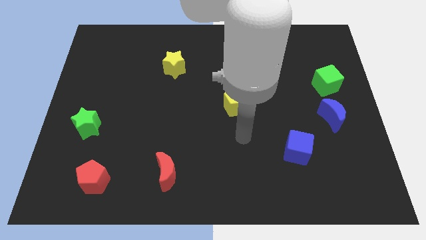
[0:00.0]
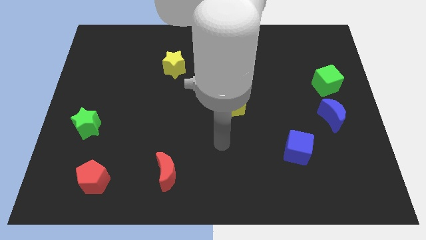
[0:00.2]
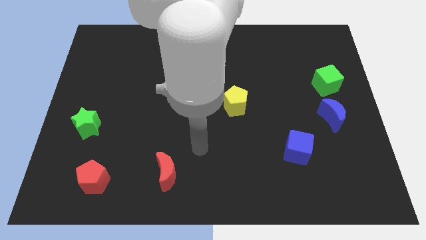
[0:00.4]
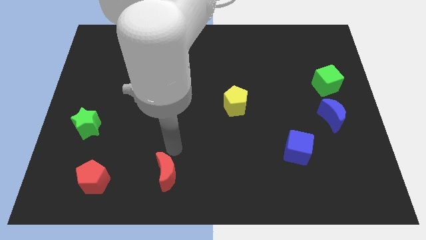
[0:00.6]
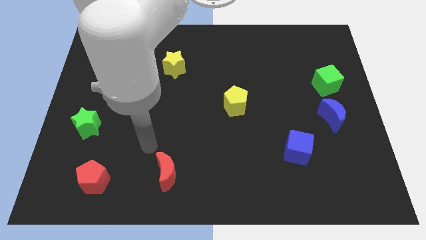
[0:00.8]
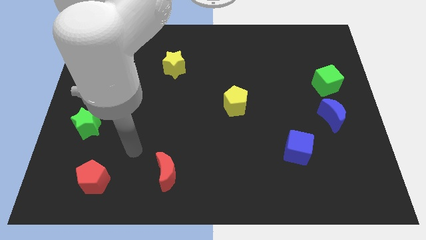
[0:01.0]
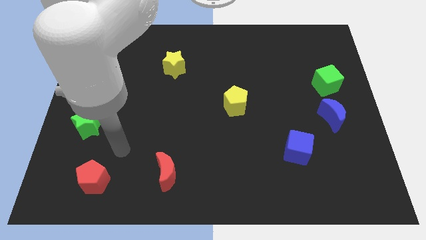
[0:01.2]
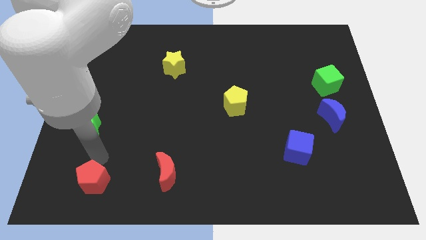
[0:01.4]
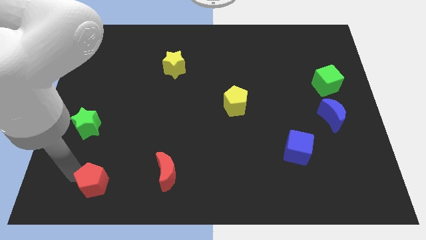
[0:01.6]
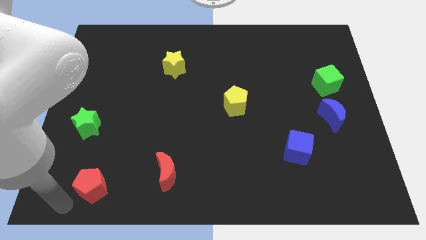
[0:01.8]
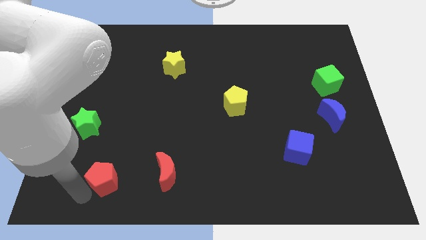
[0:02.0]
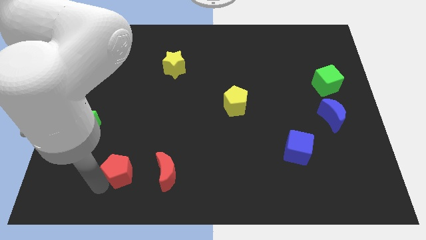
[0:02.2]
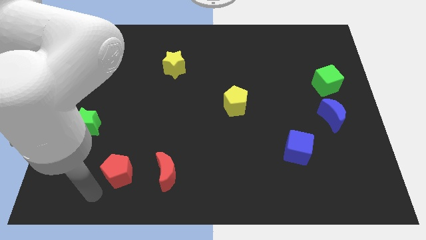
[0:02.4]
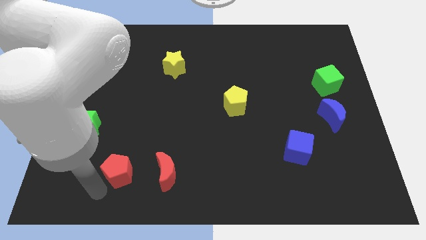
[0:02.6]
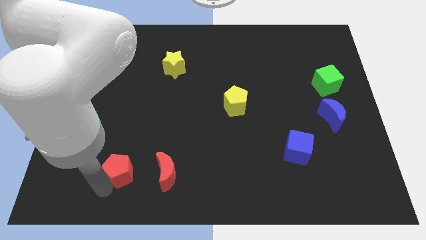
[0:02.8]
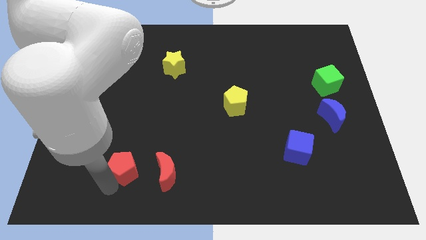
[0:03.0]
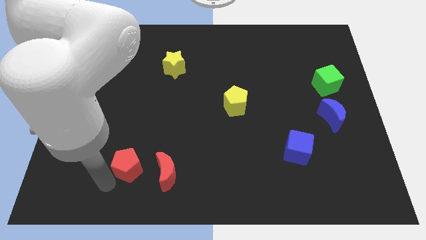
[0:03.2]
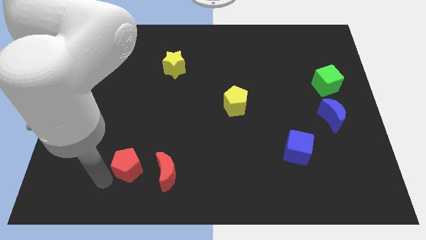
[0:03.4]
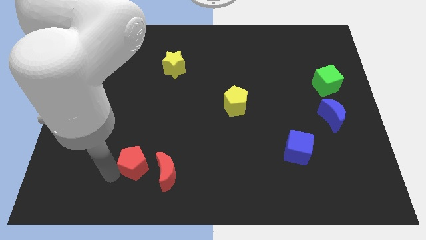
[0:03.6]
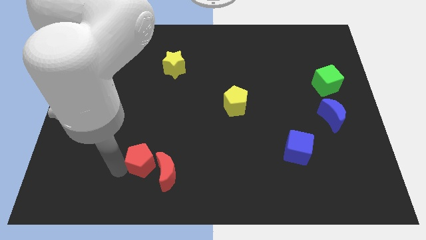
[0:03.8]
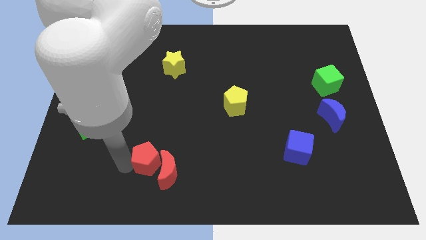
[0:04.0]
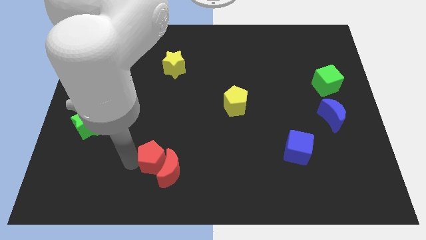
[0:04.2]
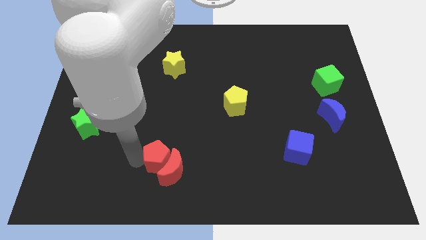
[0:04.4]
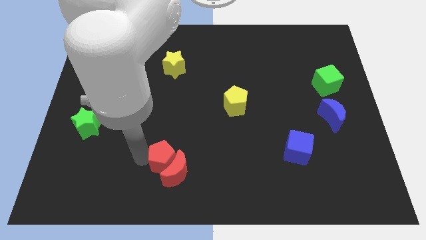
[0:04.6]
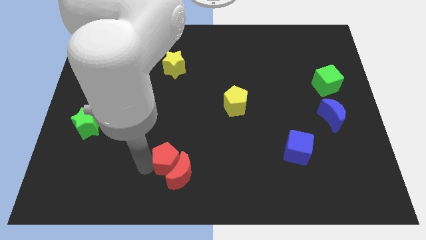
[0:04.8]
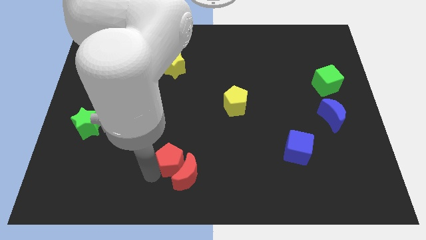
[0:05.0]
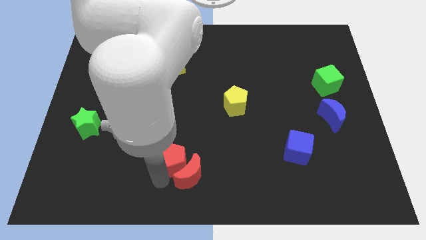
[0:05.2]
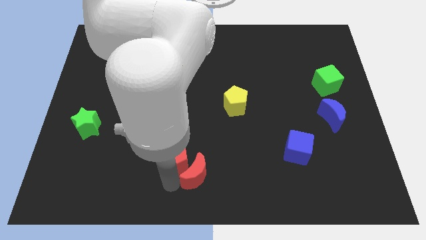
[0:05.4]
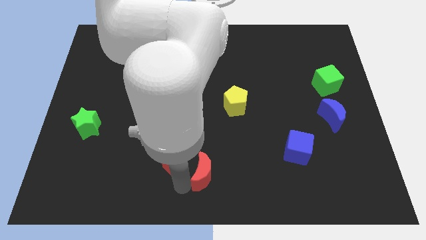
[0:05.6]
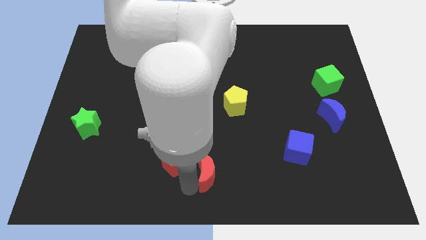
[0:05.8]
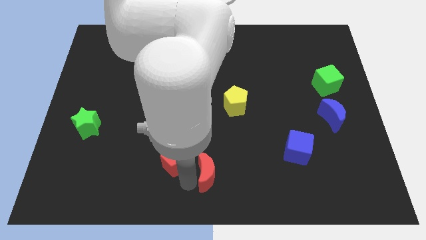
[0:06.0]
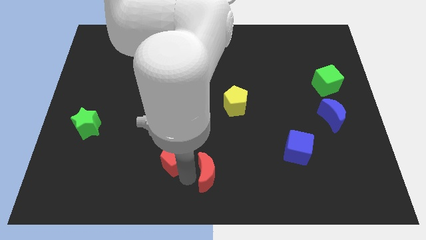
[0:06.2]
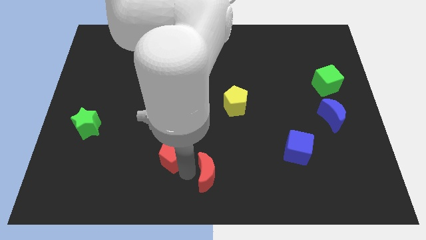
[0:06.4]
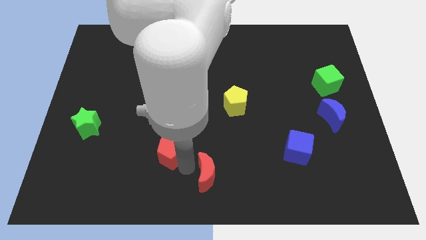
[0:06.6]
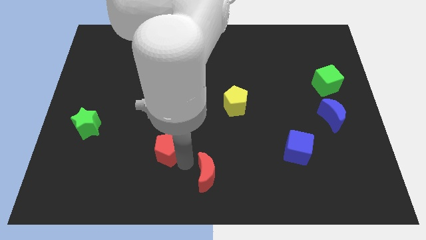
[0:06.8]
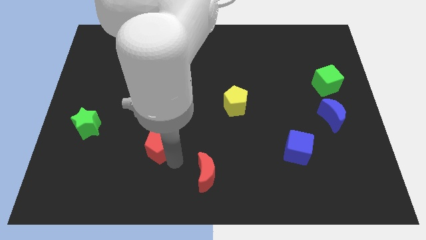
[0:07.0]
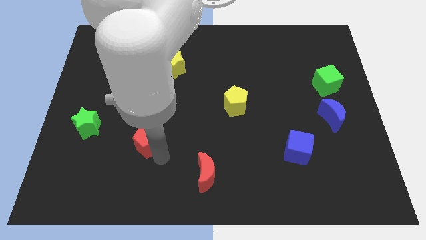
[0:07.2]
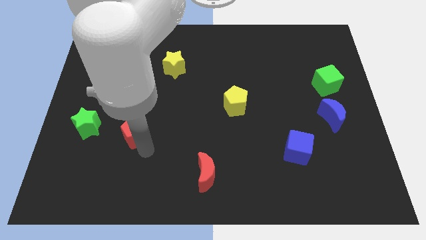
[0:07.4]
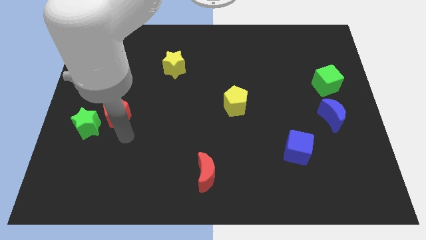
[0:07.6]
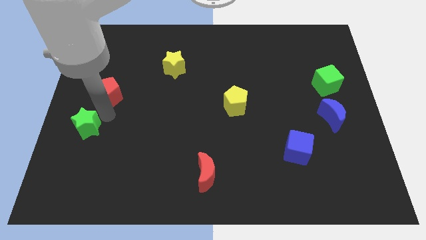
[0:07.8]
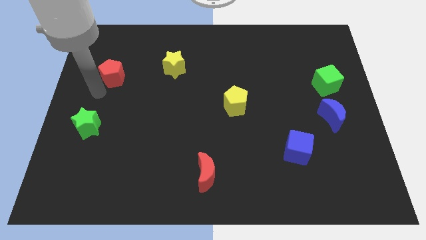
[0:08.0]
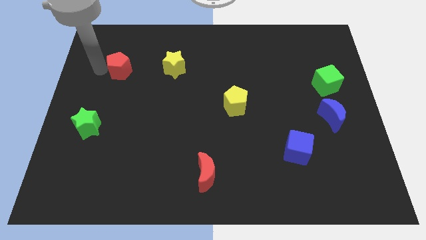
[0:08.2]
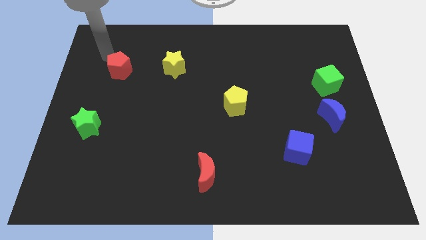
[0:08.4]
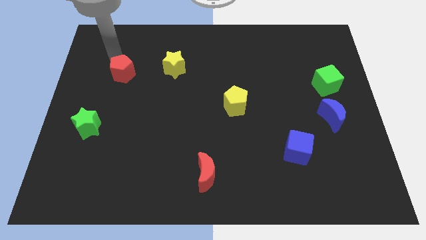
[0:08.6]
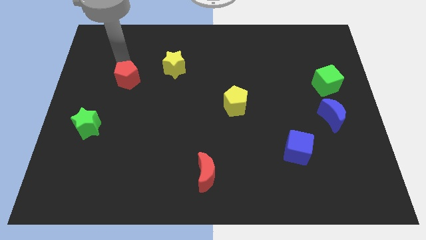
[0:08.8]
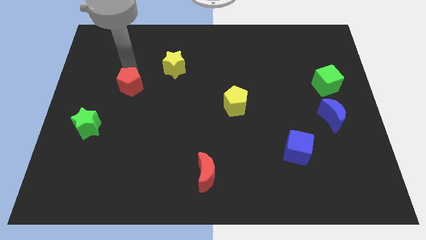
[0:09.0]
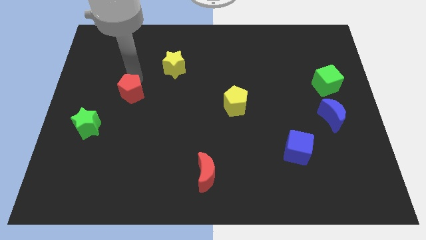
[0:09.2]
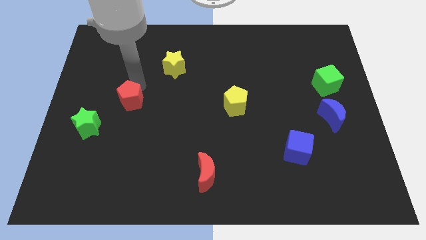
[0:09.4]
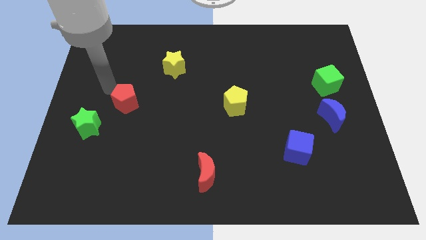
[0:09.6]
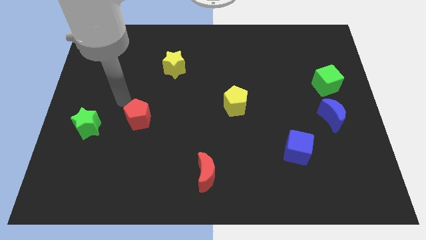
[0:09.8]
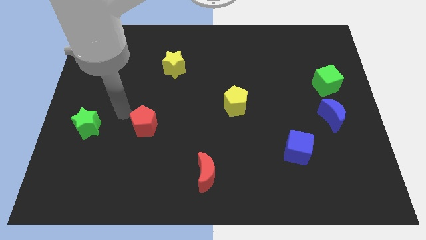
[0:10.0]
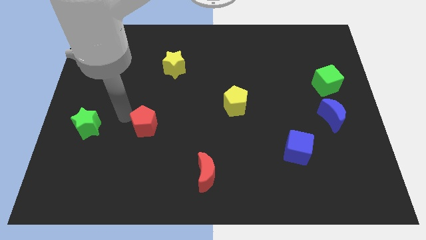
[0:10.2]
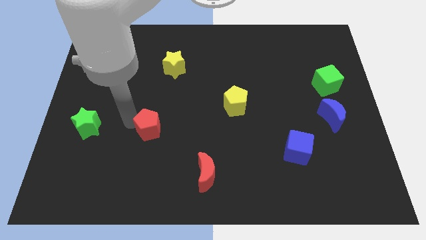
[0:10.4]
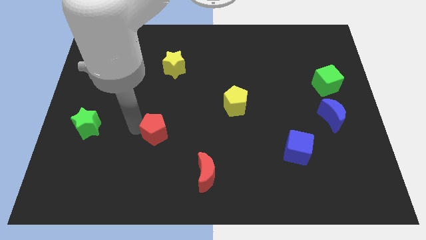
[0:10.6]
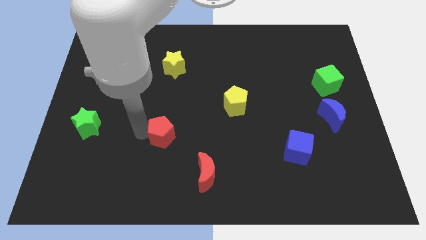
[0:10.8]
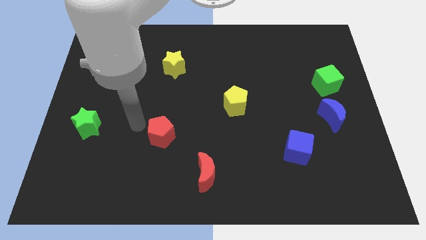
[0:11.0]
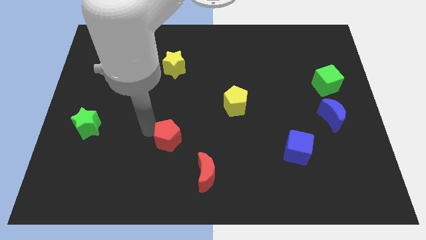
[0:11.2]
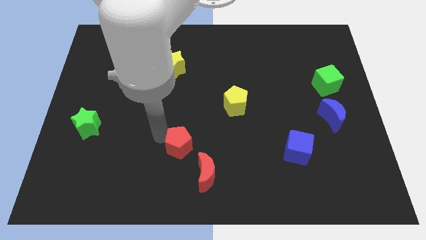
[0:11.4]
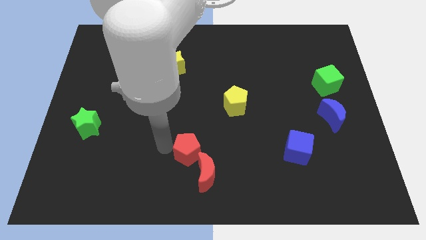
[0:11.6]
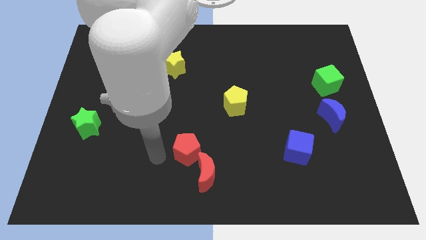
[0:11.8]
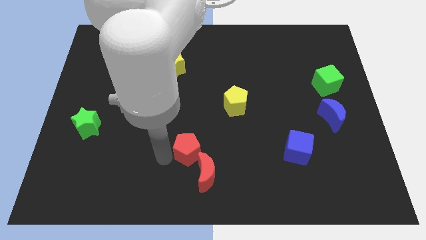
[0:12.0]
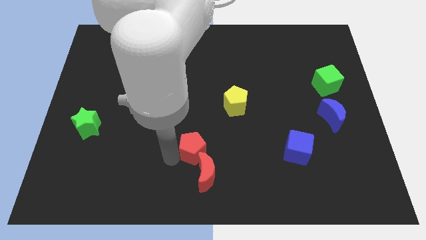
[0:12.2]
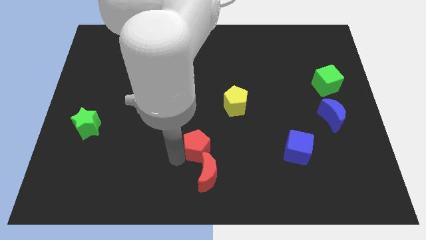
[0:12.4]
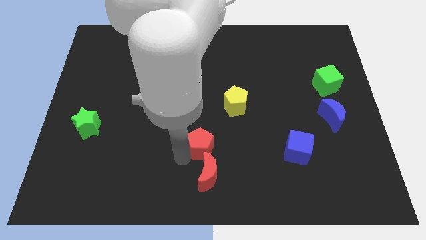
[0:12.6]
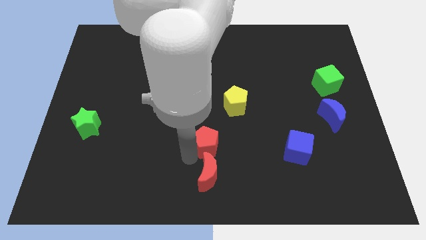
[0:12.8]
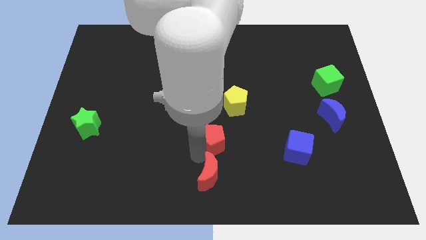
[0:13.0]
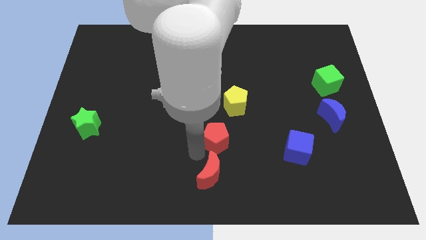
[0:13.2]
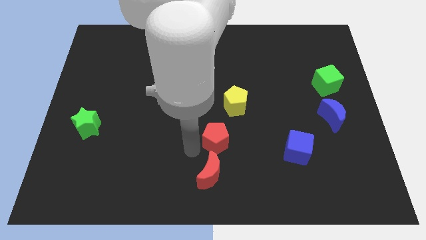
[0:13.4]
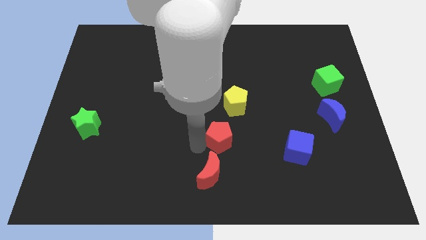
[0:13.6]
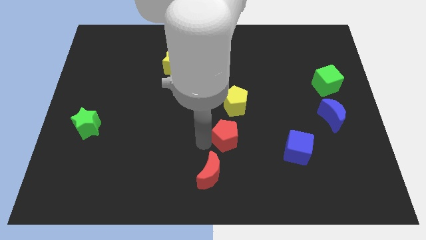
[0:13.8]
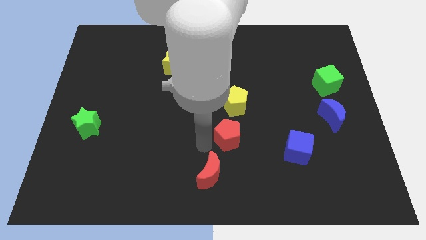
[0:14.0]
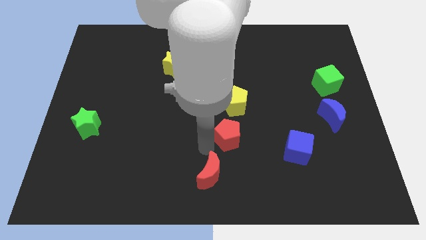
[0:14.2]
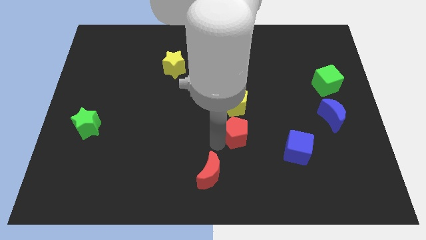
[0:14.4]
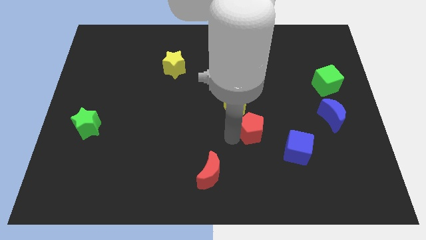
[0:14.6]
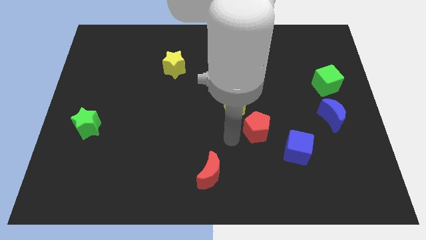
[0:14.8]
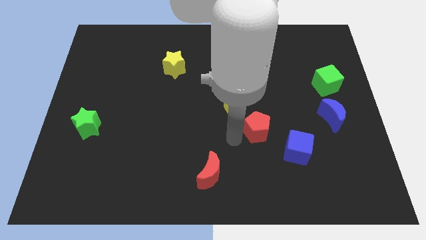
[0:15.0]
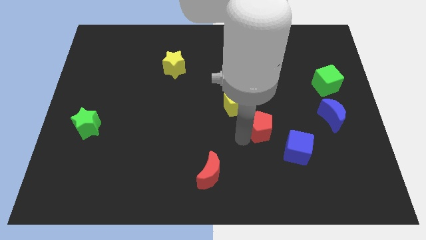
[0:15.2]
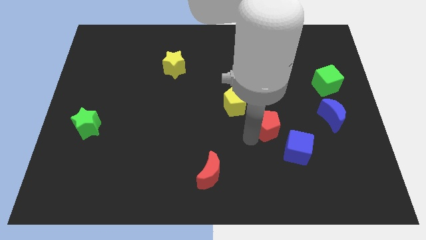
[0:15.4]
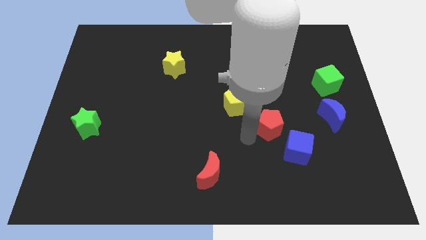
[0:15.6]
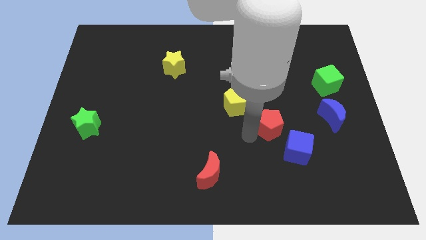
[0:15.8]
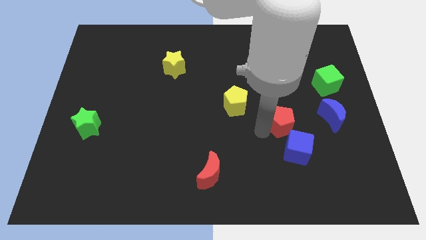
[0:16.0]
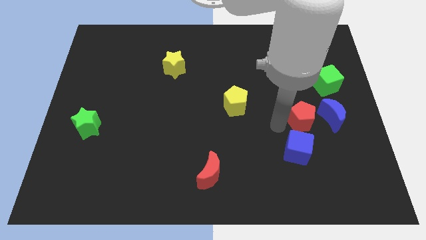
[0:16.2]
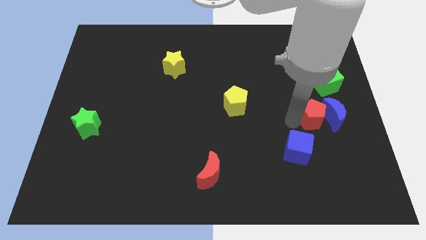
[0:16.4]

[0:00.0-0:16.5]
slide the red pentagon to the blue moon
